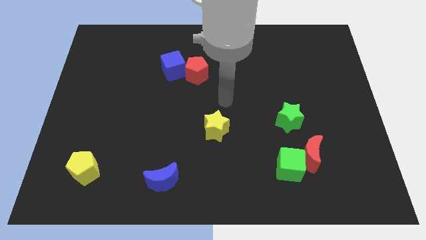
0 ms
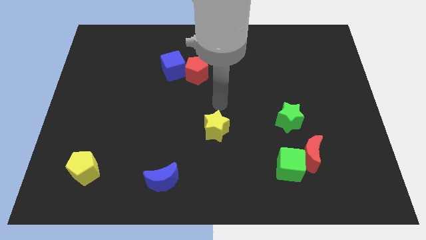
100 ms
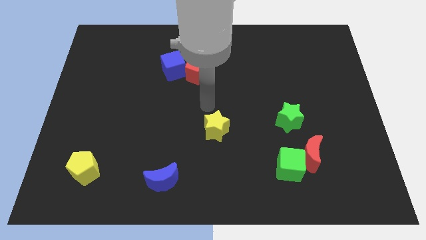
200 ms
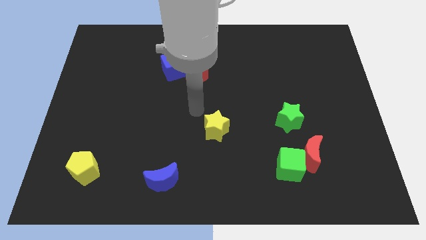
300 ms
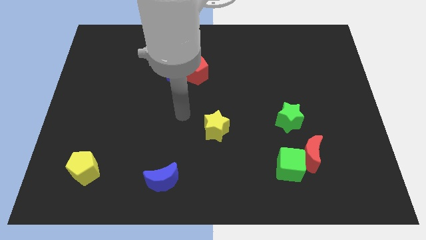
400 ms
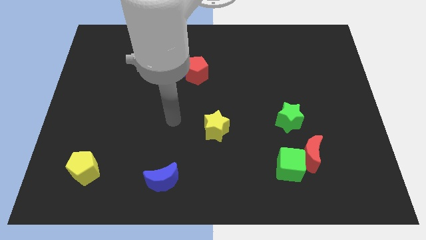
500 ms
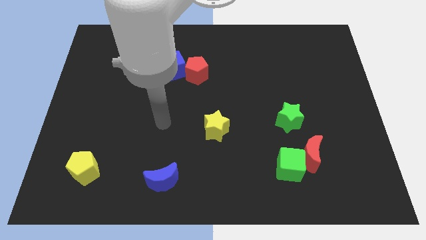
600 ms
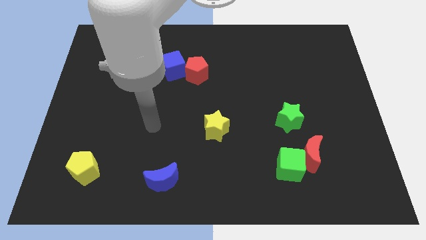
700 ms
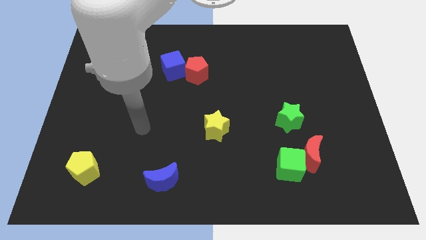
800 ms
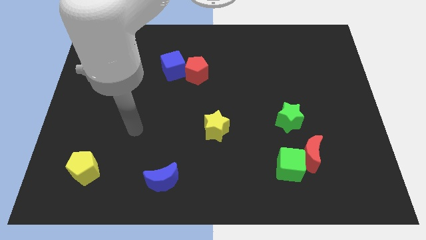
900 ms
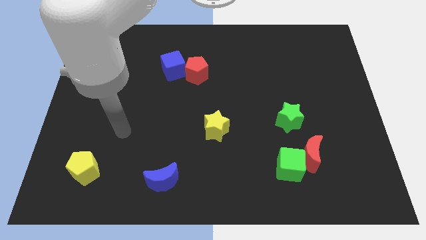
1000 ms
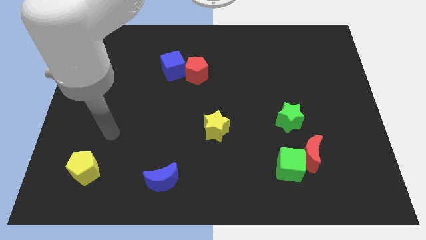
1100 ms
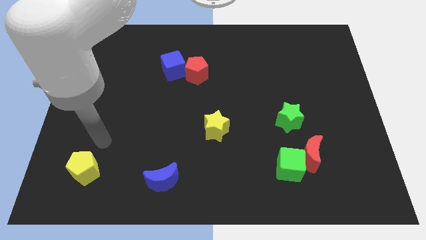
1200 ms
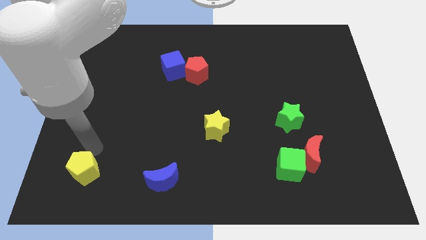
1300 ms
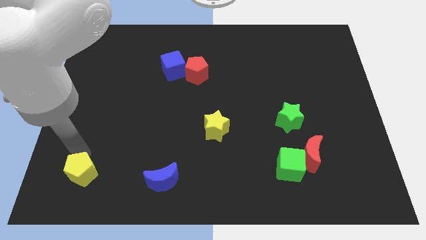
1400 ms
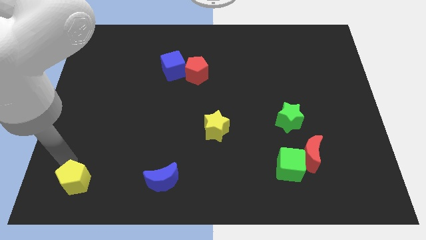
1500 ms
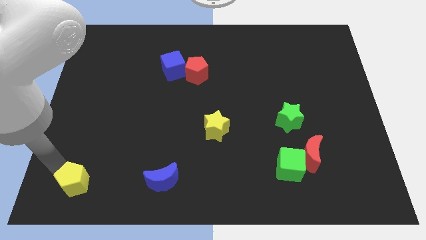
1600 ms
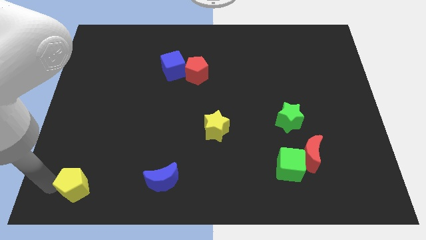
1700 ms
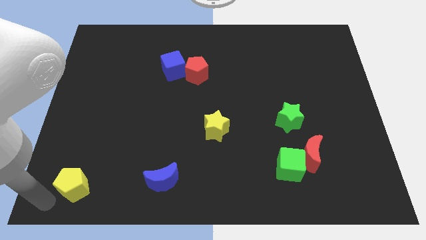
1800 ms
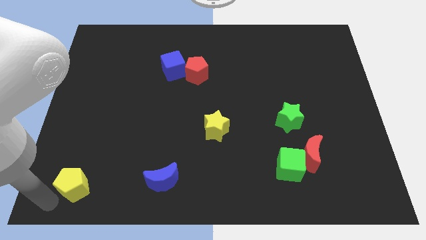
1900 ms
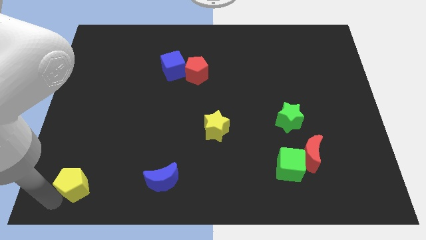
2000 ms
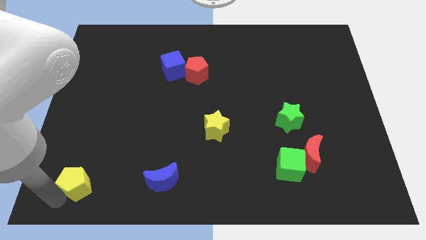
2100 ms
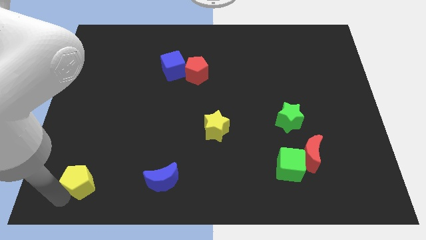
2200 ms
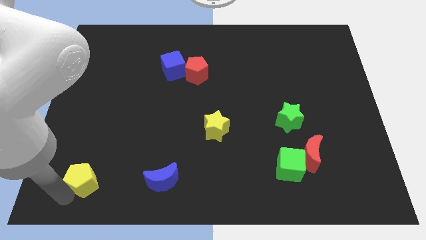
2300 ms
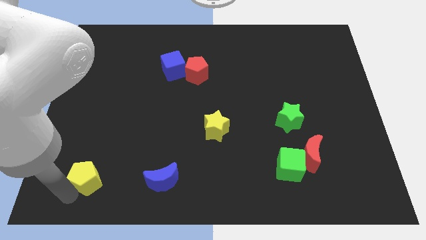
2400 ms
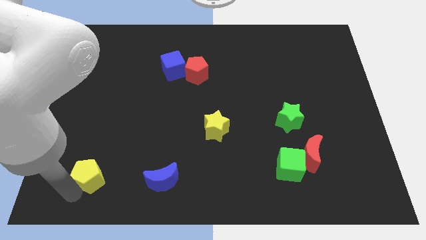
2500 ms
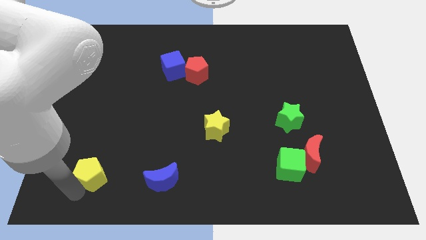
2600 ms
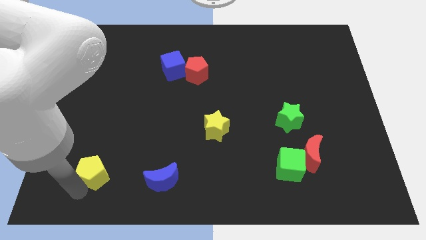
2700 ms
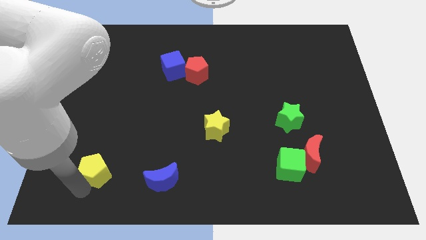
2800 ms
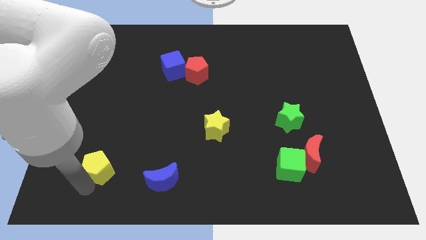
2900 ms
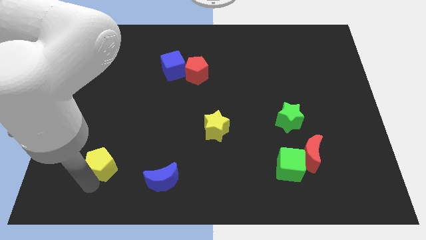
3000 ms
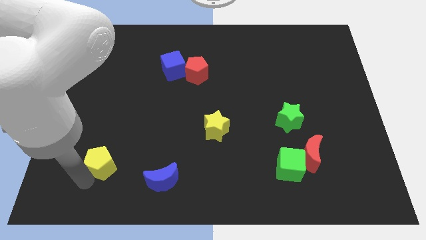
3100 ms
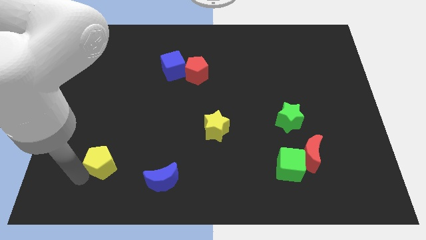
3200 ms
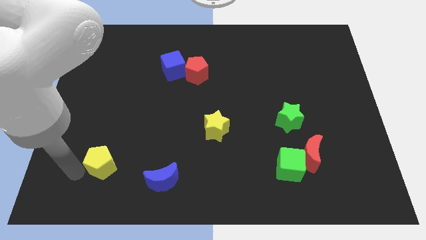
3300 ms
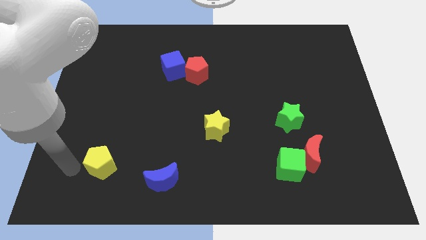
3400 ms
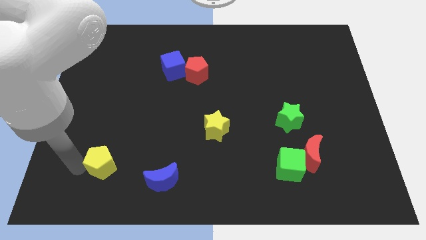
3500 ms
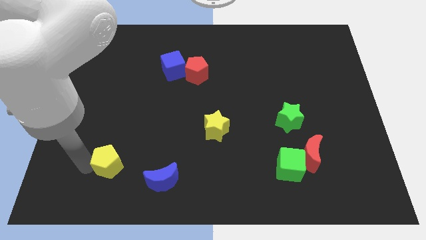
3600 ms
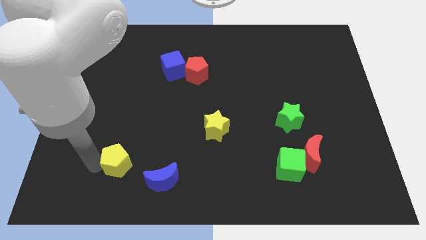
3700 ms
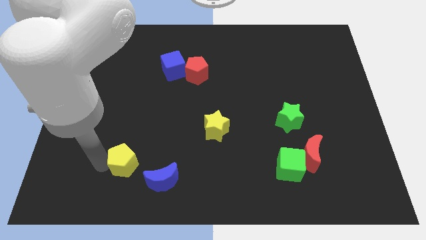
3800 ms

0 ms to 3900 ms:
move the yellow pentagon to the right a bit

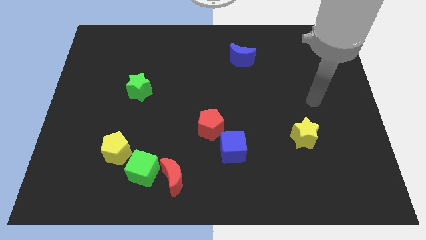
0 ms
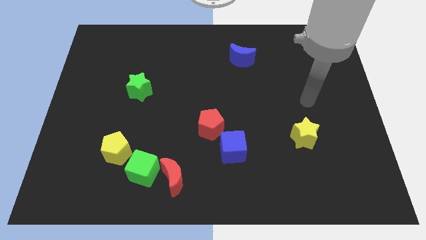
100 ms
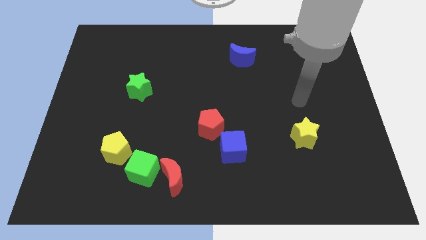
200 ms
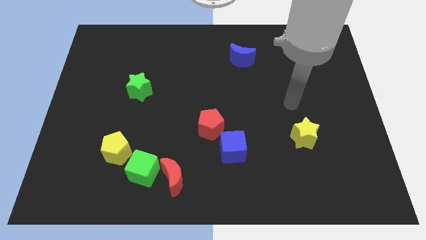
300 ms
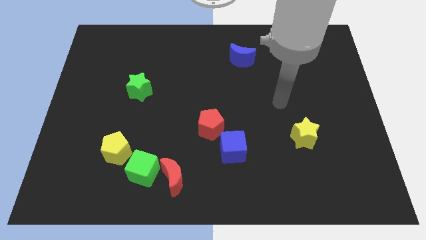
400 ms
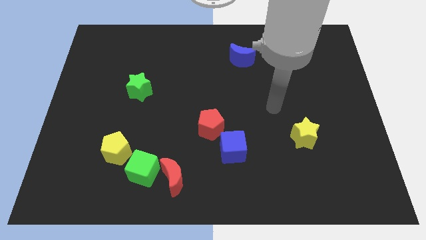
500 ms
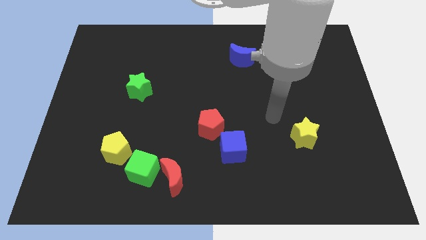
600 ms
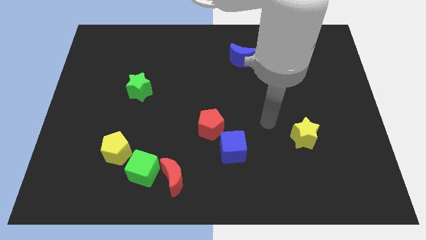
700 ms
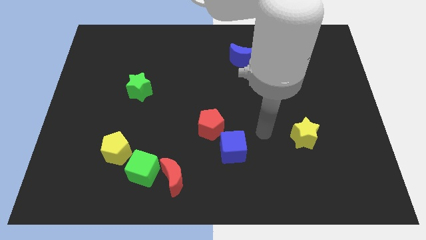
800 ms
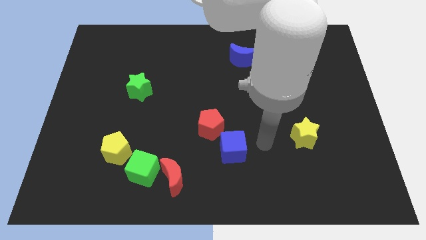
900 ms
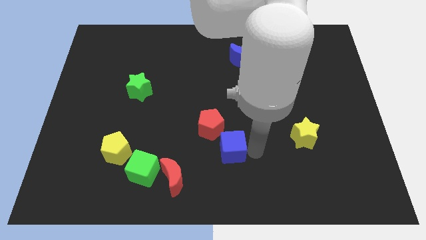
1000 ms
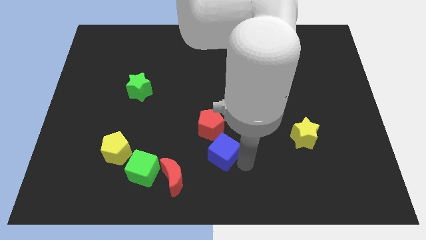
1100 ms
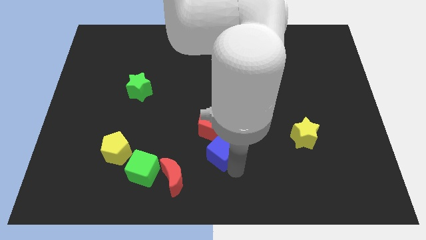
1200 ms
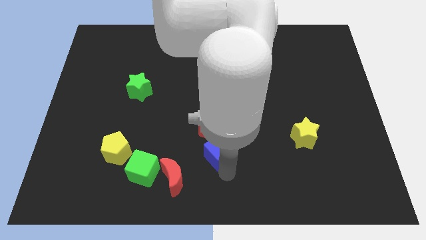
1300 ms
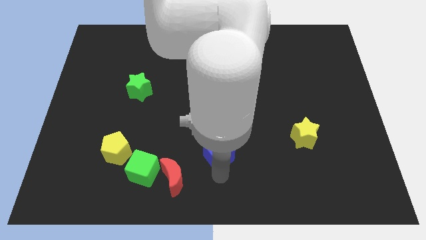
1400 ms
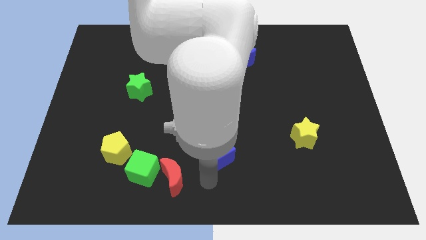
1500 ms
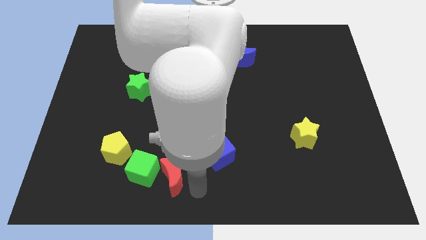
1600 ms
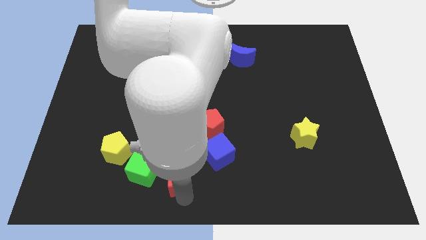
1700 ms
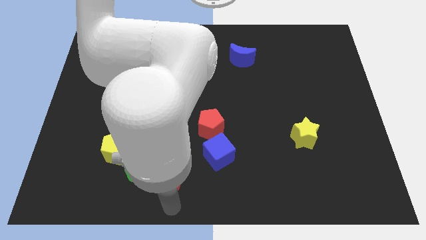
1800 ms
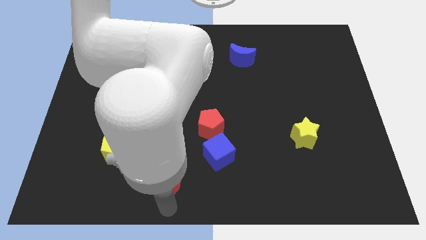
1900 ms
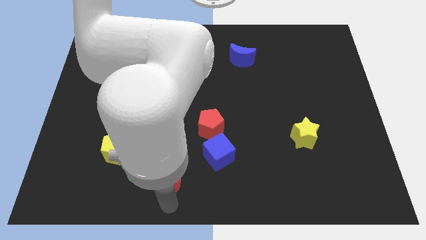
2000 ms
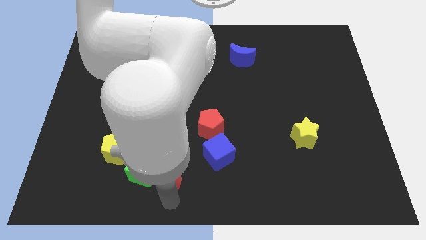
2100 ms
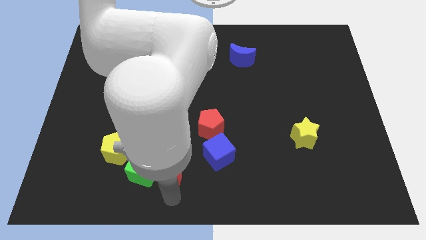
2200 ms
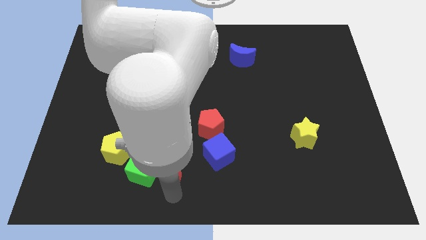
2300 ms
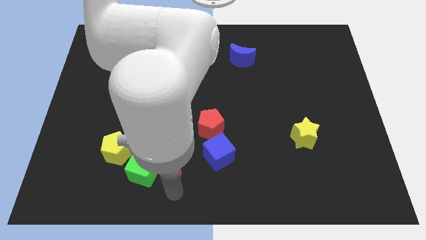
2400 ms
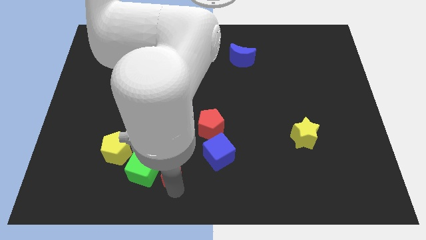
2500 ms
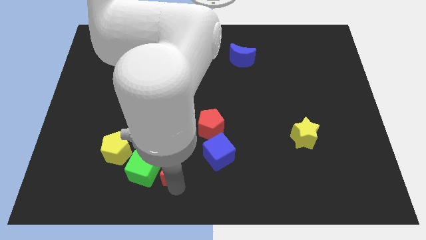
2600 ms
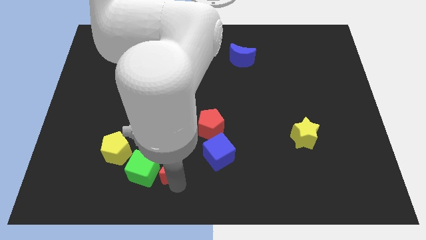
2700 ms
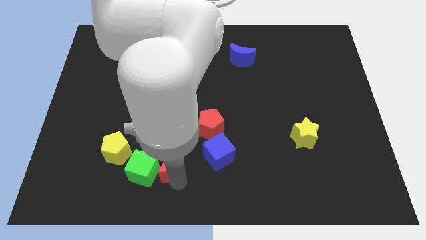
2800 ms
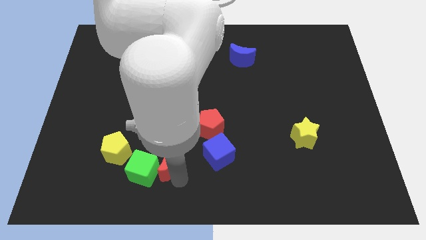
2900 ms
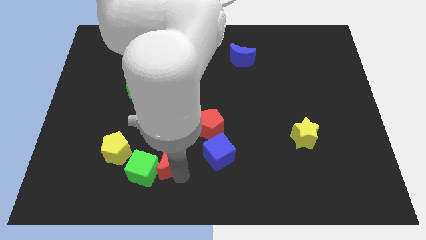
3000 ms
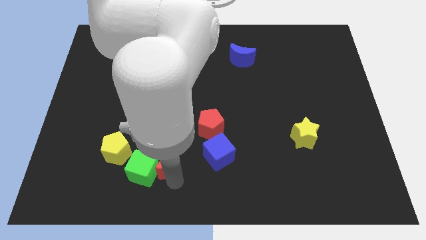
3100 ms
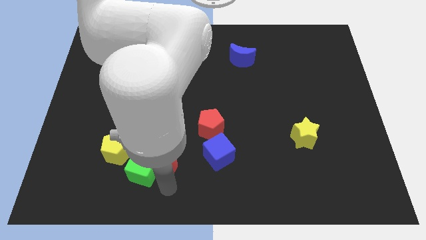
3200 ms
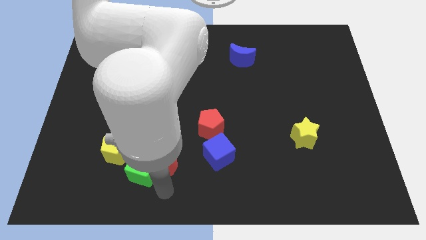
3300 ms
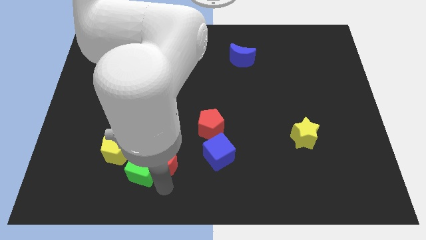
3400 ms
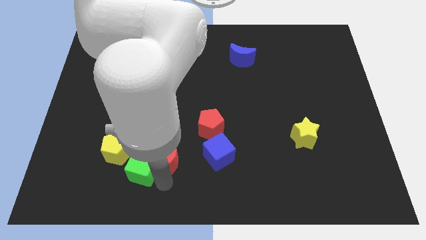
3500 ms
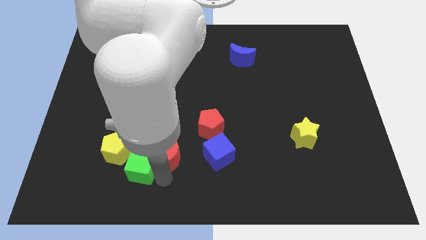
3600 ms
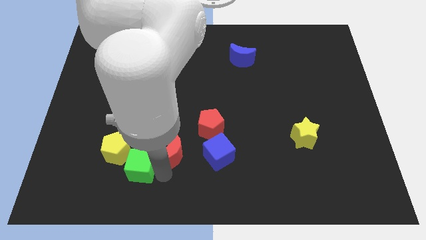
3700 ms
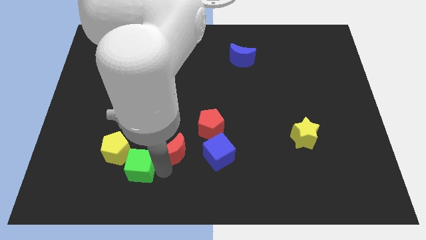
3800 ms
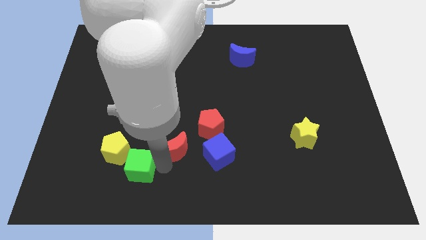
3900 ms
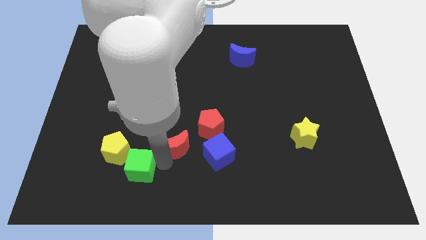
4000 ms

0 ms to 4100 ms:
slightly push the red moon upwards
